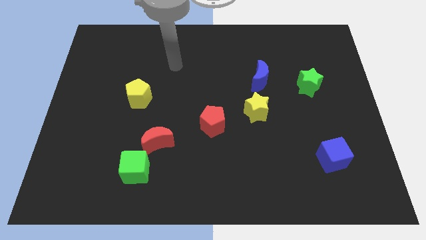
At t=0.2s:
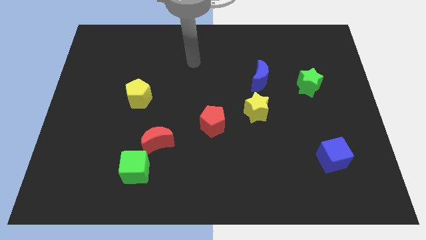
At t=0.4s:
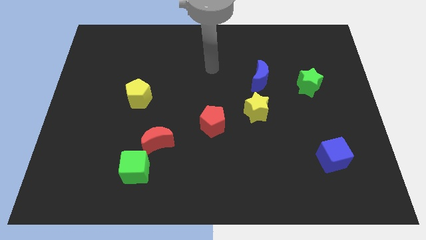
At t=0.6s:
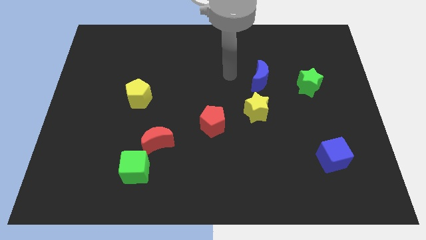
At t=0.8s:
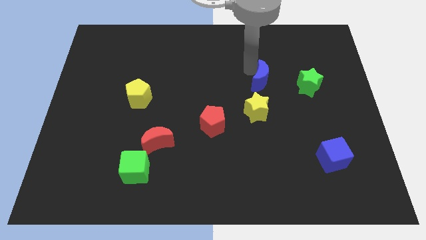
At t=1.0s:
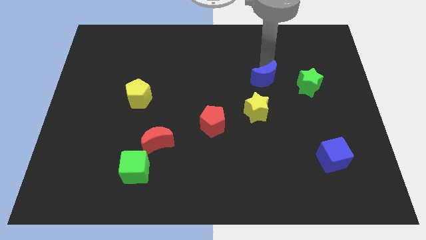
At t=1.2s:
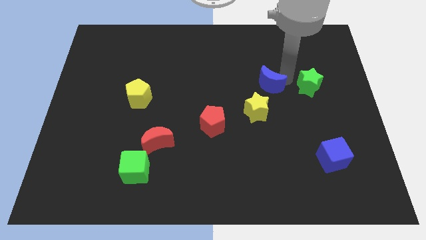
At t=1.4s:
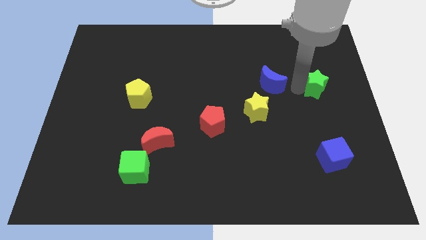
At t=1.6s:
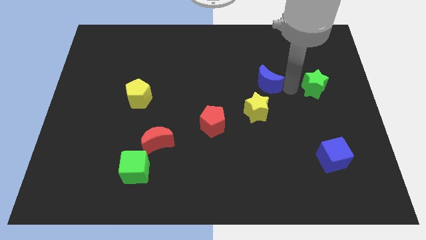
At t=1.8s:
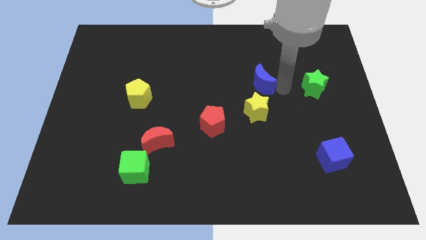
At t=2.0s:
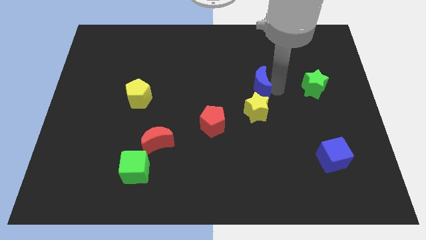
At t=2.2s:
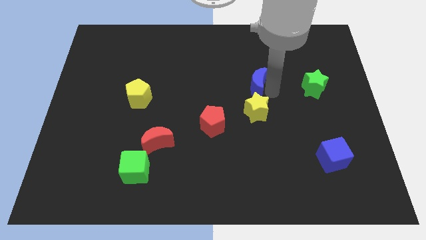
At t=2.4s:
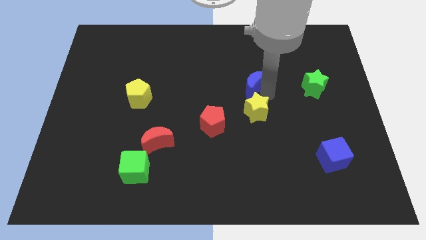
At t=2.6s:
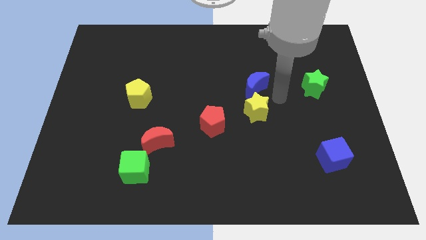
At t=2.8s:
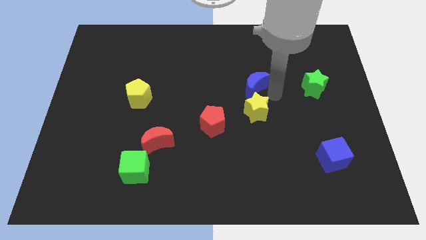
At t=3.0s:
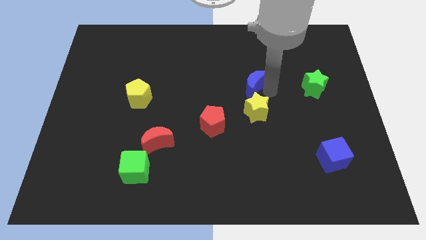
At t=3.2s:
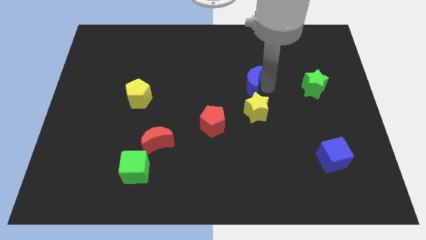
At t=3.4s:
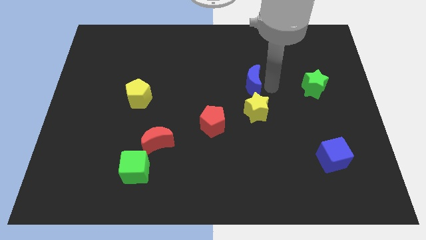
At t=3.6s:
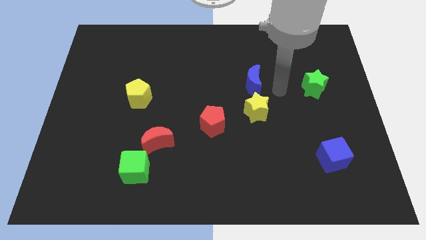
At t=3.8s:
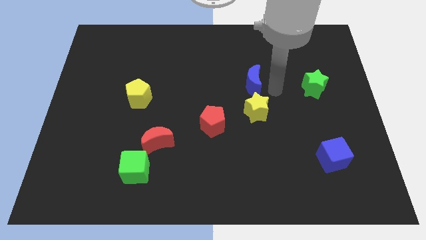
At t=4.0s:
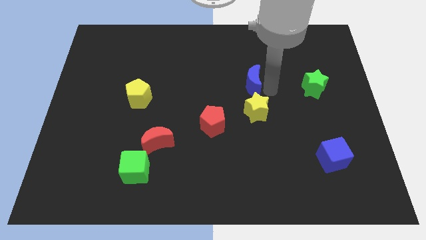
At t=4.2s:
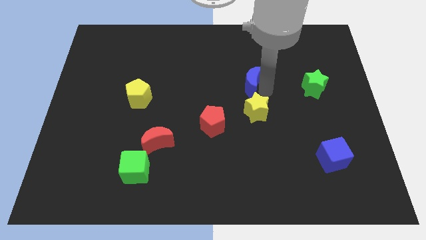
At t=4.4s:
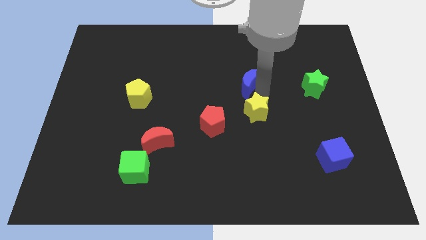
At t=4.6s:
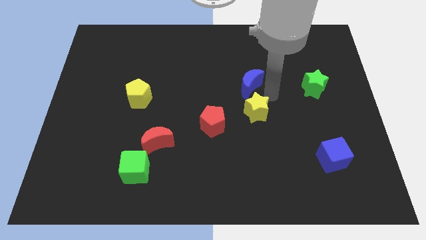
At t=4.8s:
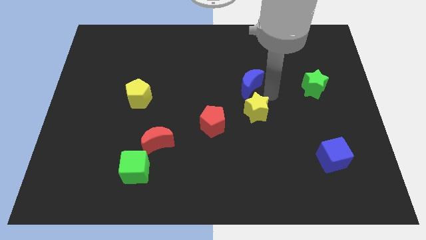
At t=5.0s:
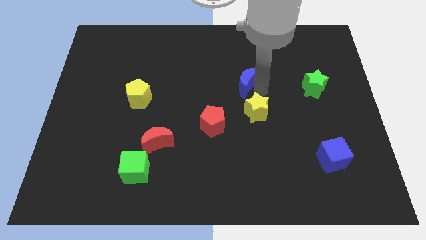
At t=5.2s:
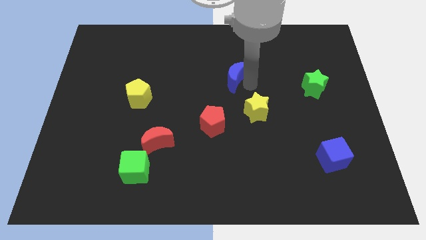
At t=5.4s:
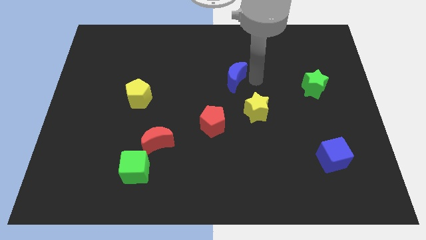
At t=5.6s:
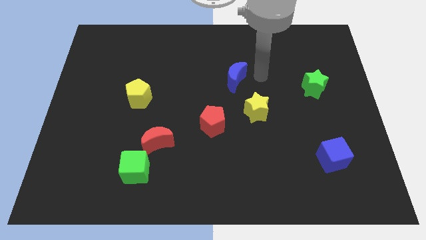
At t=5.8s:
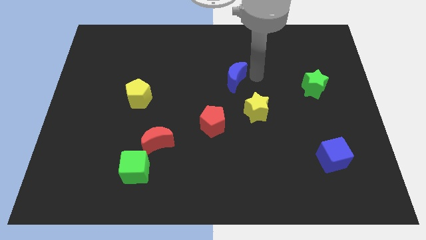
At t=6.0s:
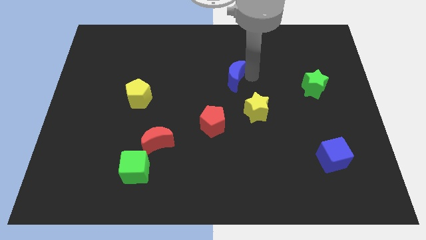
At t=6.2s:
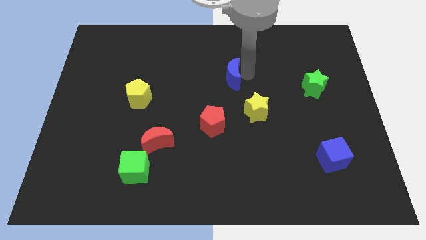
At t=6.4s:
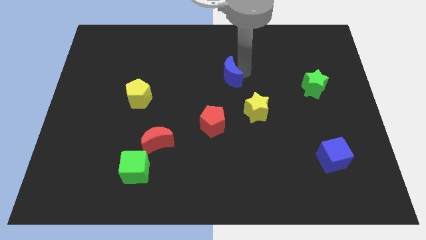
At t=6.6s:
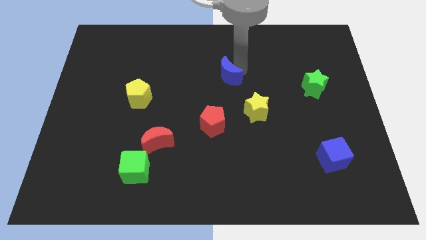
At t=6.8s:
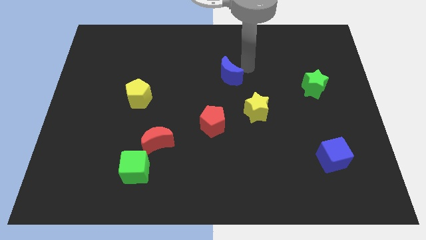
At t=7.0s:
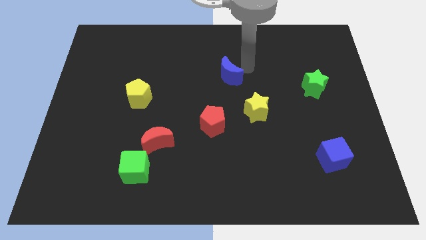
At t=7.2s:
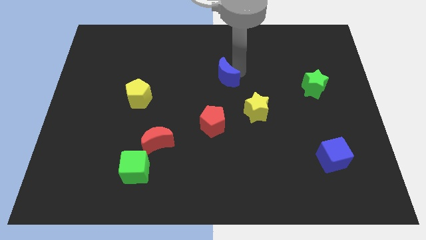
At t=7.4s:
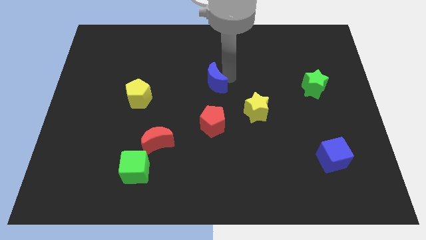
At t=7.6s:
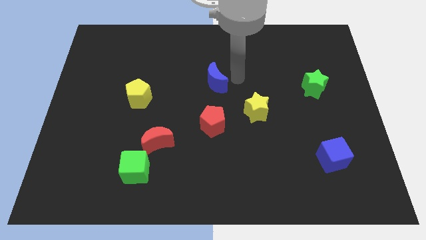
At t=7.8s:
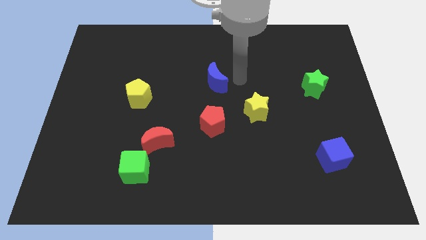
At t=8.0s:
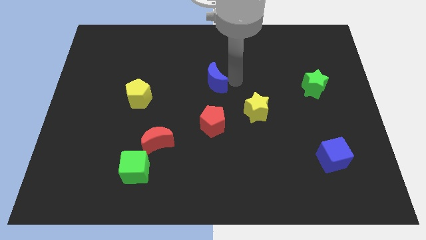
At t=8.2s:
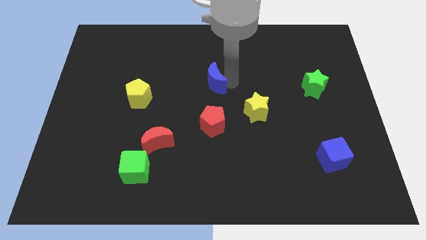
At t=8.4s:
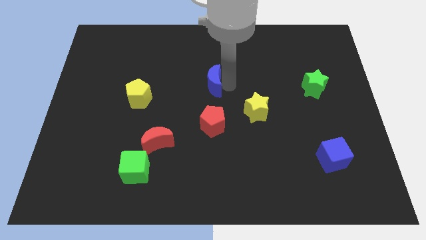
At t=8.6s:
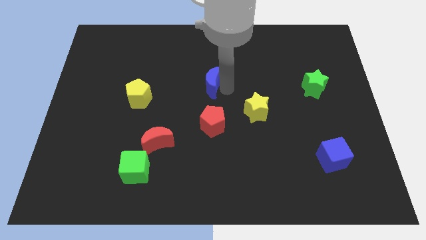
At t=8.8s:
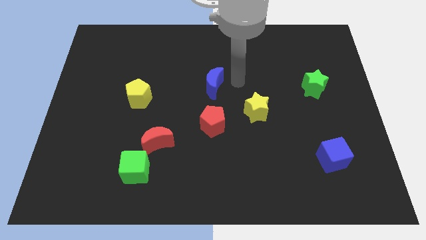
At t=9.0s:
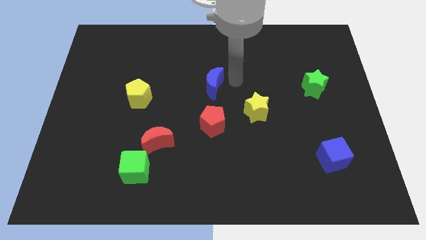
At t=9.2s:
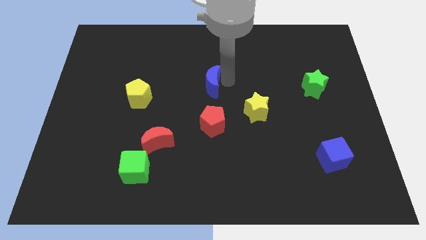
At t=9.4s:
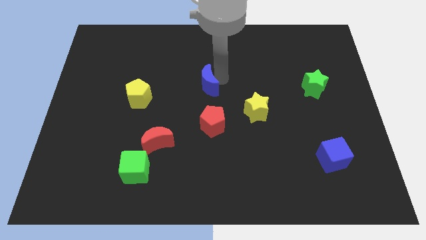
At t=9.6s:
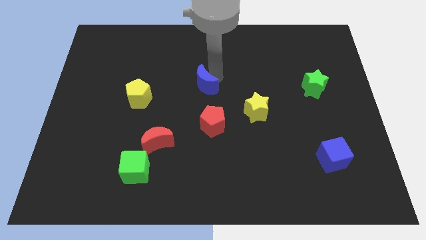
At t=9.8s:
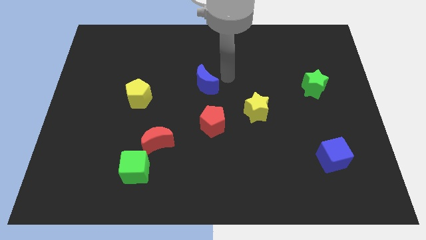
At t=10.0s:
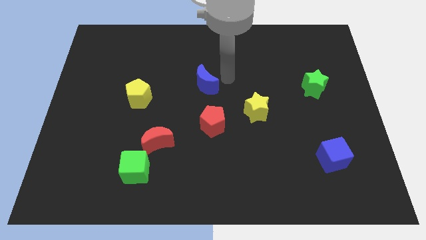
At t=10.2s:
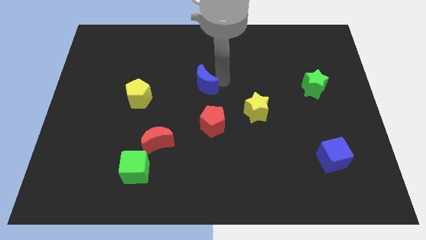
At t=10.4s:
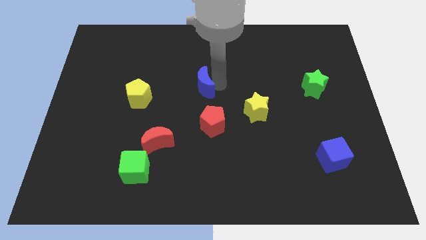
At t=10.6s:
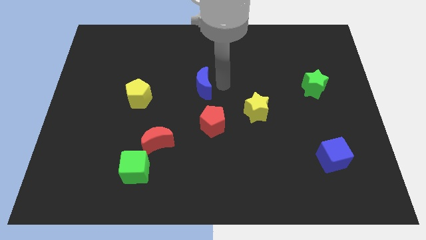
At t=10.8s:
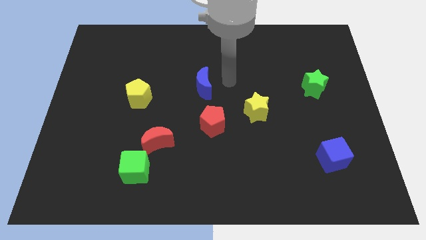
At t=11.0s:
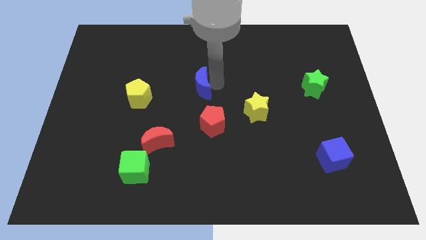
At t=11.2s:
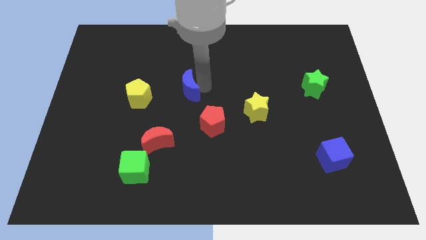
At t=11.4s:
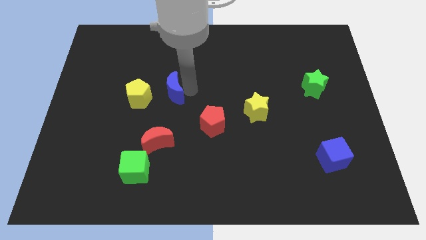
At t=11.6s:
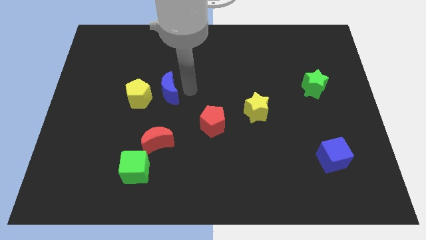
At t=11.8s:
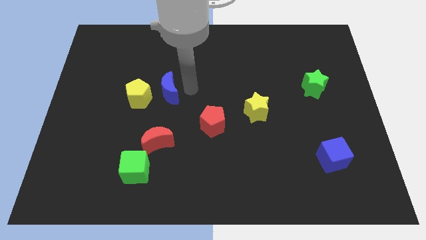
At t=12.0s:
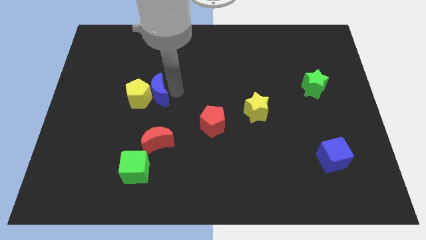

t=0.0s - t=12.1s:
put the blue moon next to the yellow pentagon

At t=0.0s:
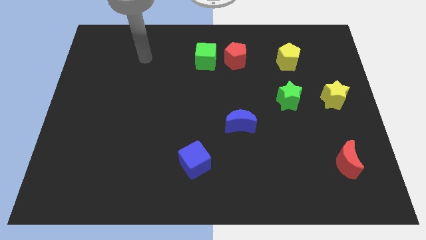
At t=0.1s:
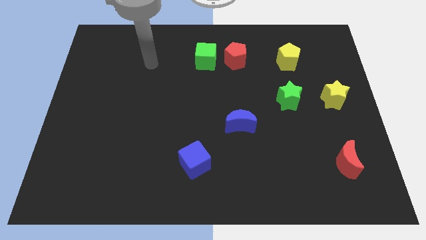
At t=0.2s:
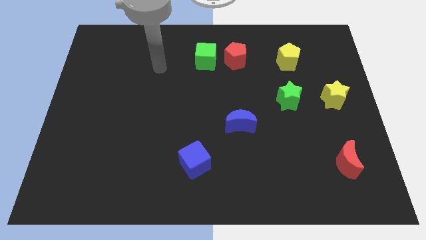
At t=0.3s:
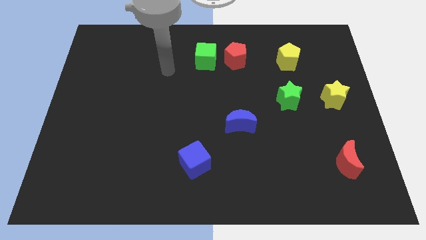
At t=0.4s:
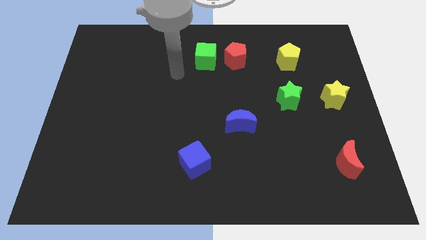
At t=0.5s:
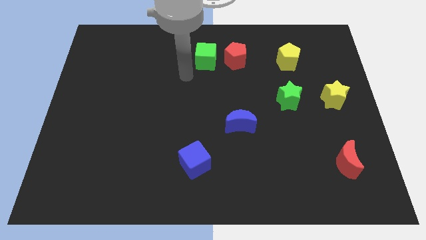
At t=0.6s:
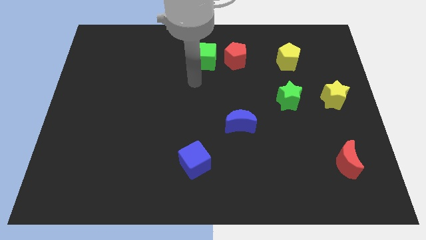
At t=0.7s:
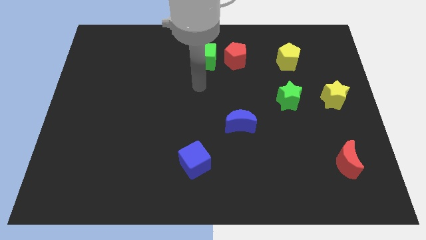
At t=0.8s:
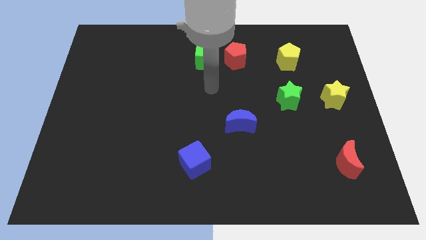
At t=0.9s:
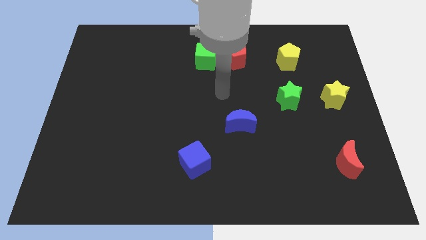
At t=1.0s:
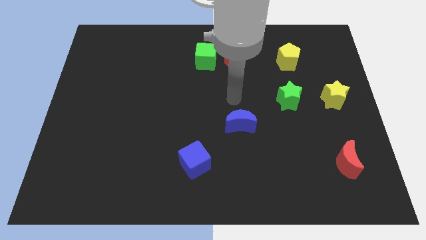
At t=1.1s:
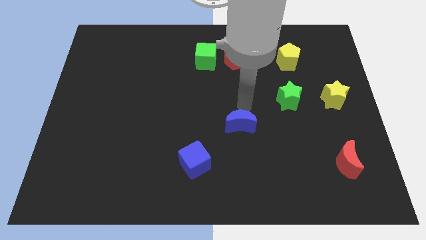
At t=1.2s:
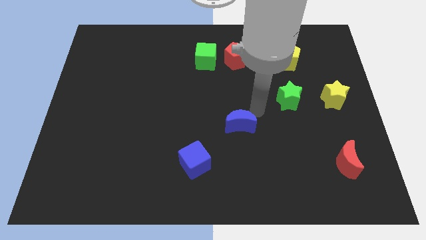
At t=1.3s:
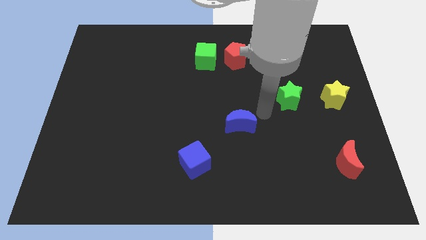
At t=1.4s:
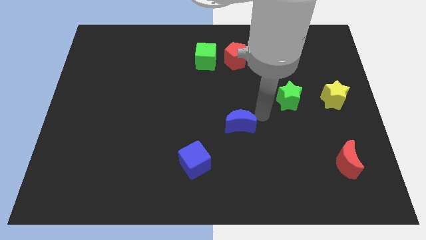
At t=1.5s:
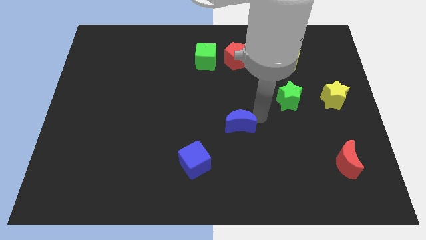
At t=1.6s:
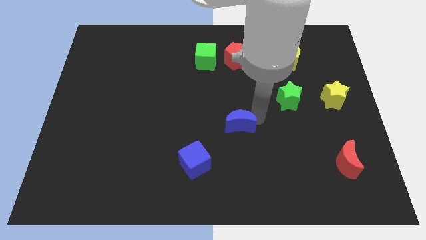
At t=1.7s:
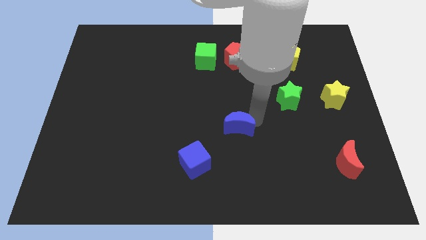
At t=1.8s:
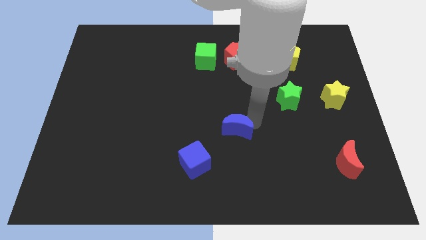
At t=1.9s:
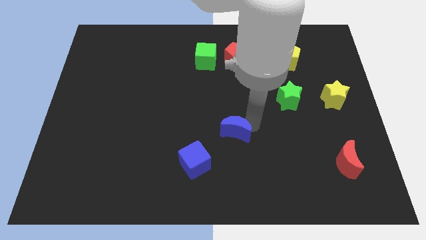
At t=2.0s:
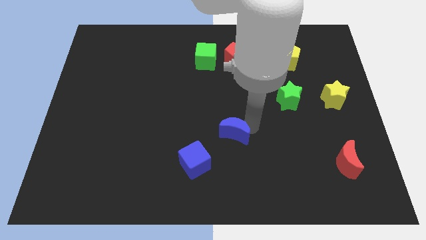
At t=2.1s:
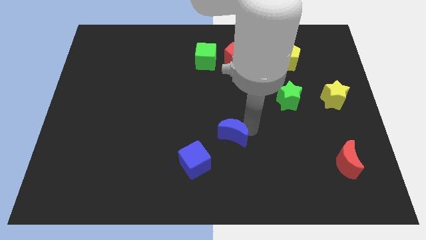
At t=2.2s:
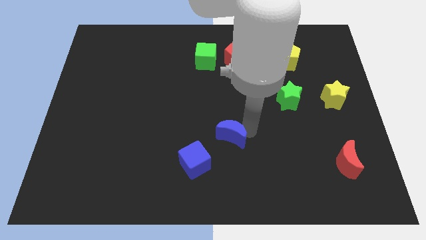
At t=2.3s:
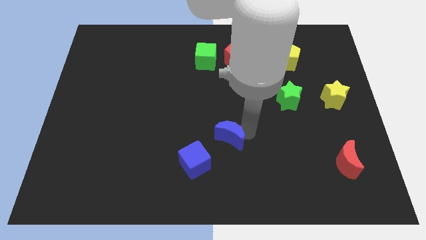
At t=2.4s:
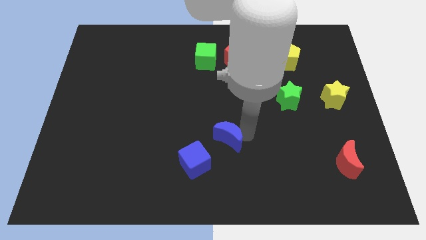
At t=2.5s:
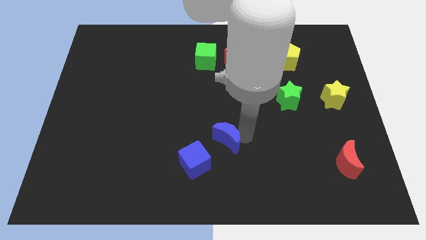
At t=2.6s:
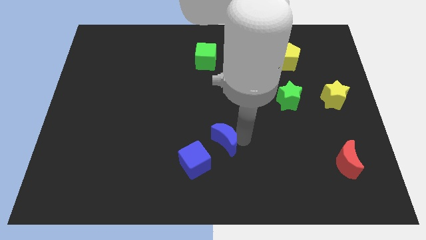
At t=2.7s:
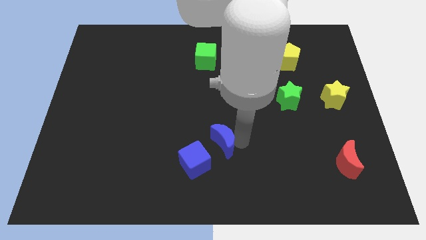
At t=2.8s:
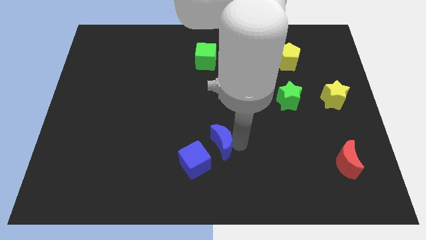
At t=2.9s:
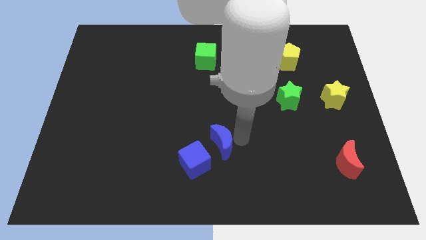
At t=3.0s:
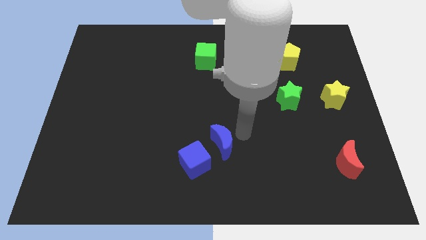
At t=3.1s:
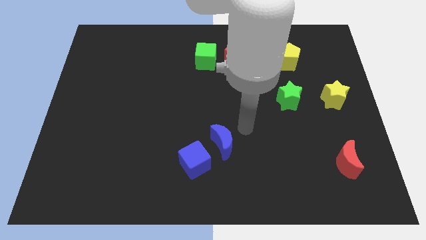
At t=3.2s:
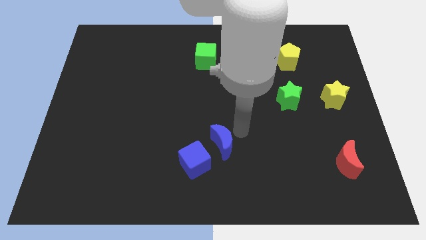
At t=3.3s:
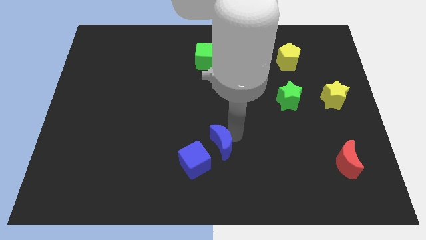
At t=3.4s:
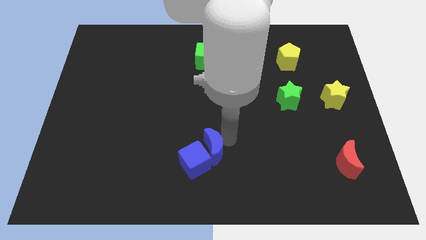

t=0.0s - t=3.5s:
put the blue moon towards the blue cube
